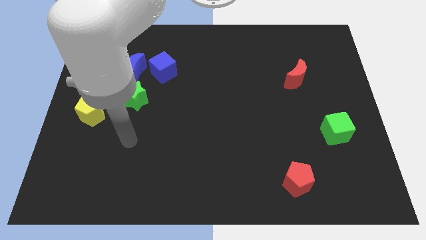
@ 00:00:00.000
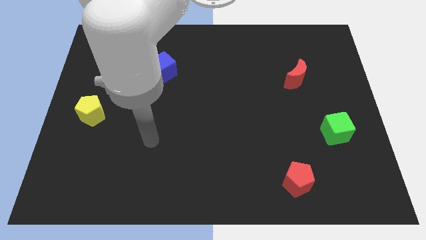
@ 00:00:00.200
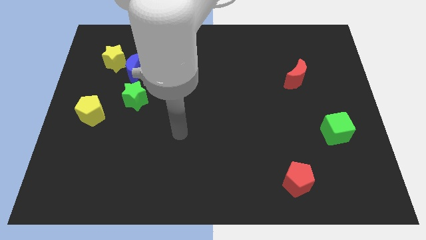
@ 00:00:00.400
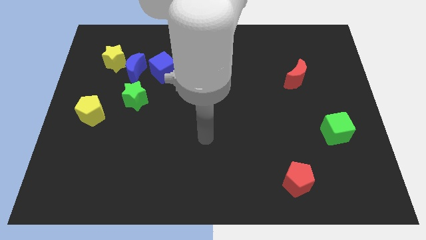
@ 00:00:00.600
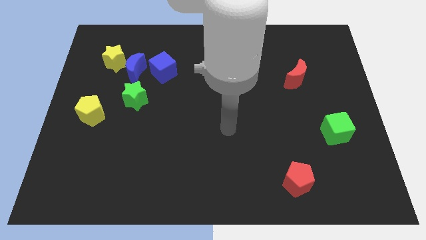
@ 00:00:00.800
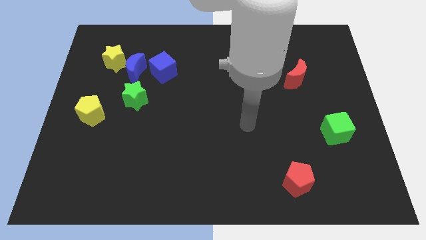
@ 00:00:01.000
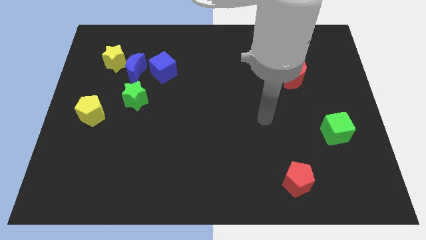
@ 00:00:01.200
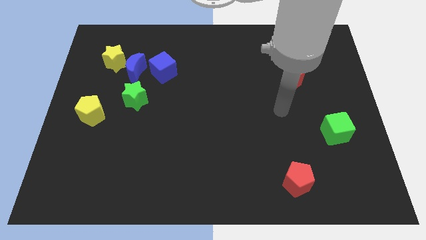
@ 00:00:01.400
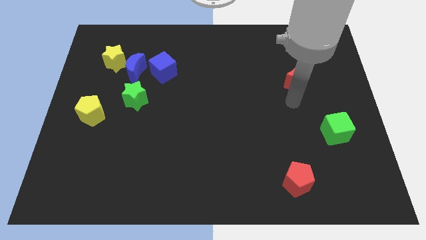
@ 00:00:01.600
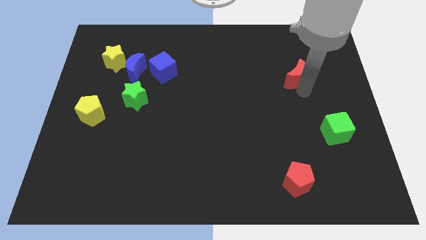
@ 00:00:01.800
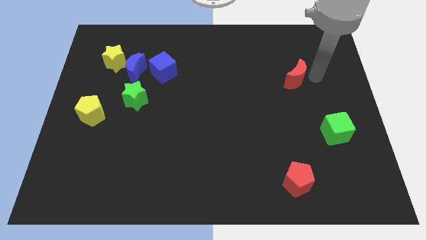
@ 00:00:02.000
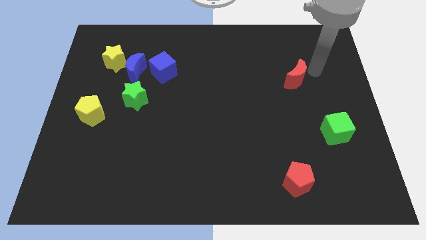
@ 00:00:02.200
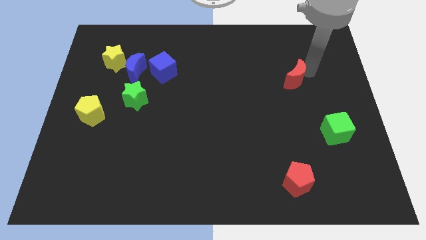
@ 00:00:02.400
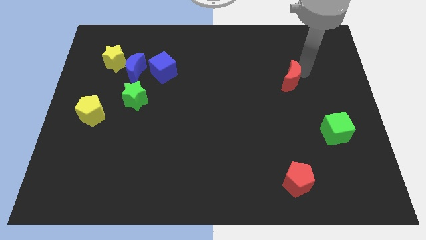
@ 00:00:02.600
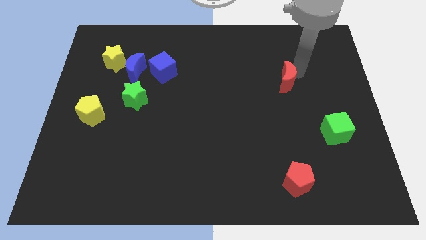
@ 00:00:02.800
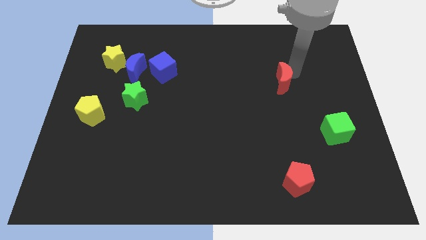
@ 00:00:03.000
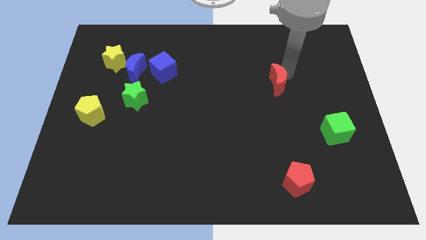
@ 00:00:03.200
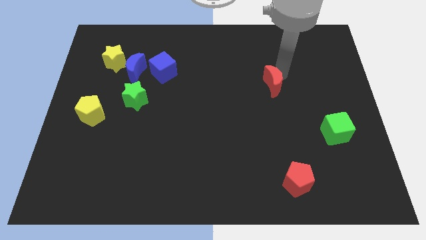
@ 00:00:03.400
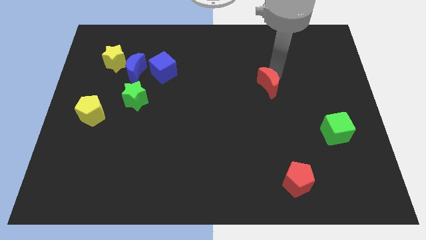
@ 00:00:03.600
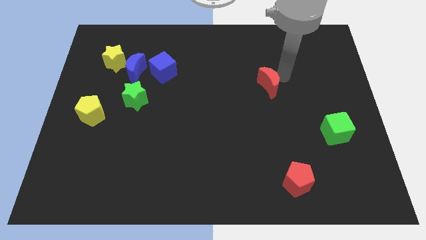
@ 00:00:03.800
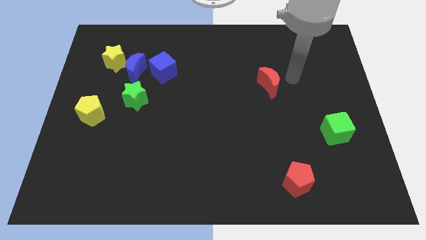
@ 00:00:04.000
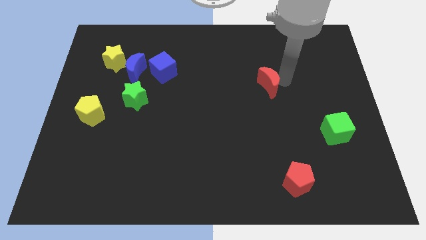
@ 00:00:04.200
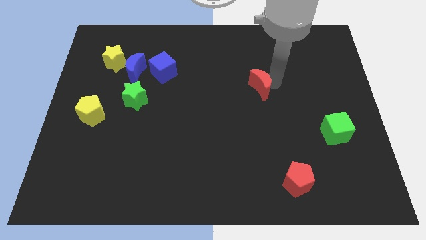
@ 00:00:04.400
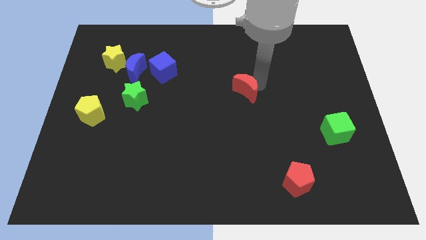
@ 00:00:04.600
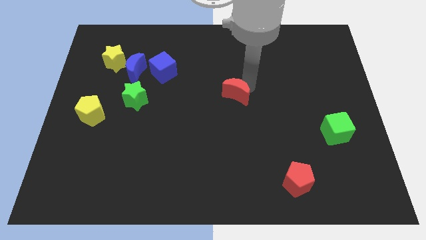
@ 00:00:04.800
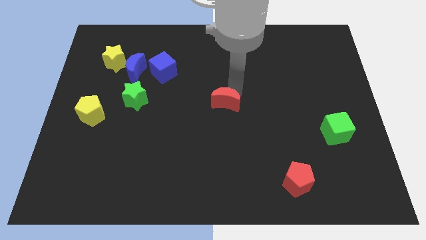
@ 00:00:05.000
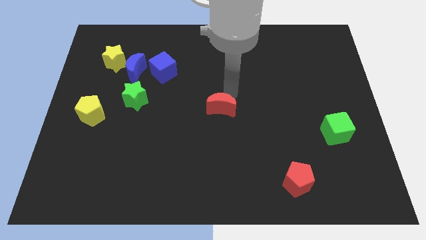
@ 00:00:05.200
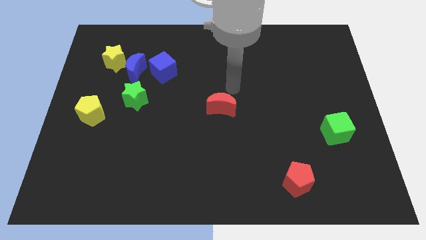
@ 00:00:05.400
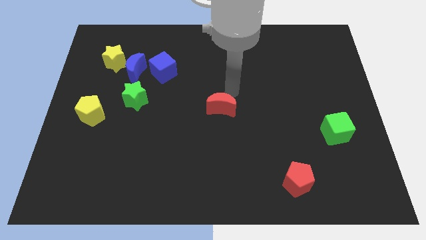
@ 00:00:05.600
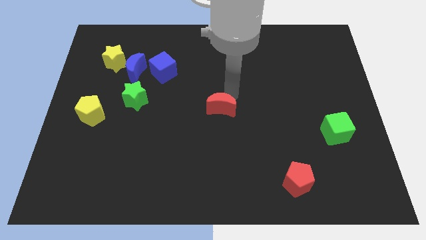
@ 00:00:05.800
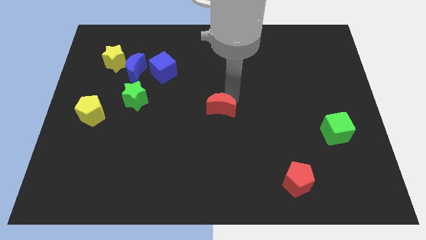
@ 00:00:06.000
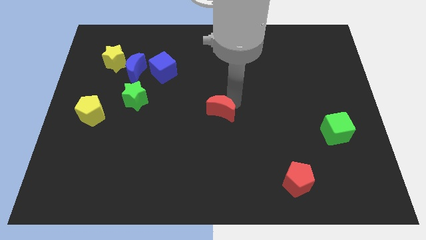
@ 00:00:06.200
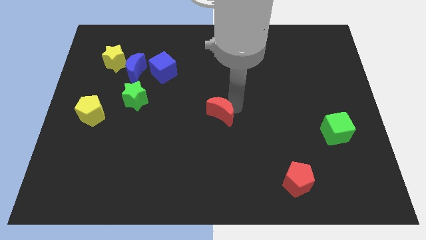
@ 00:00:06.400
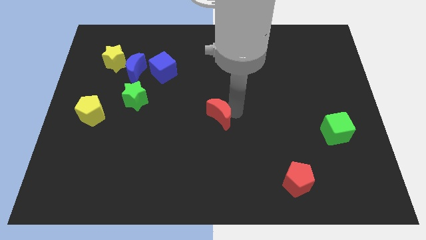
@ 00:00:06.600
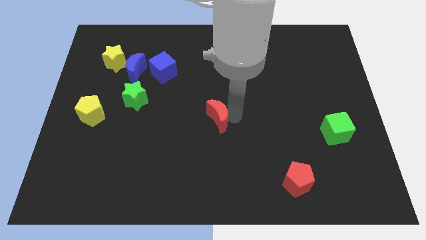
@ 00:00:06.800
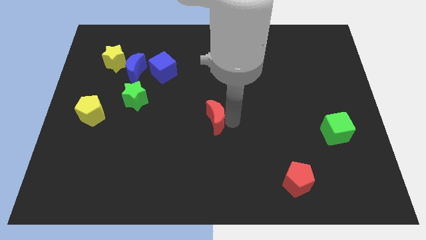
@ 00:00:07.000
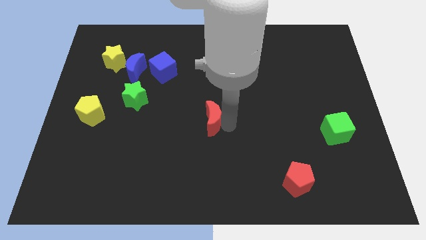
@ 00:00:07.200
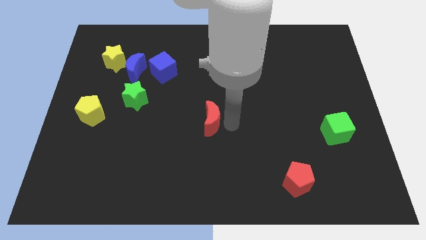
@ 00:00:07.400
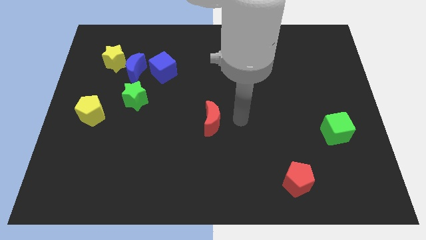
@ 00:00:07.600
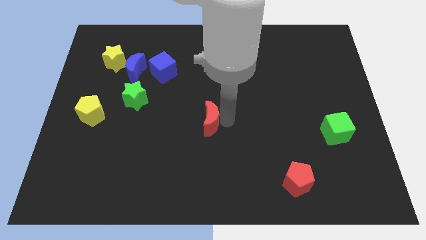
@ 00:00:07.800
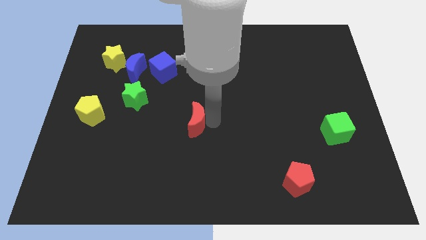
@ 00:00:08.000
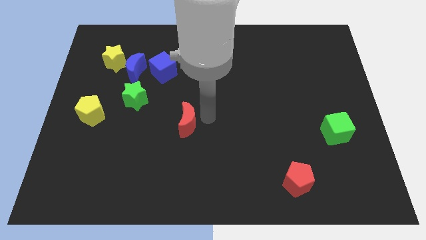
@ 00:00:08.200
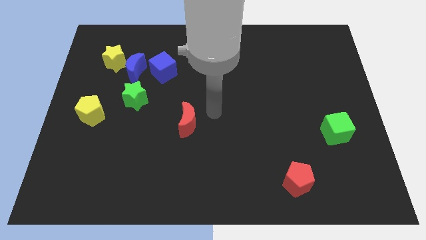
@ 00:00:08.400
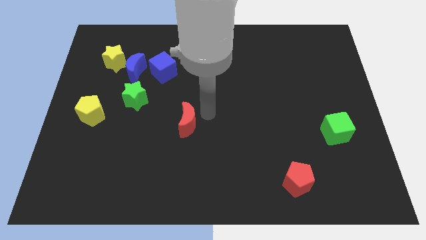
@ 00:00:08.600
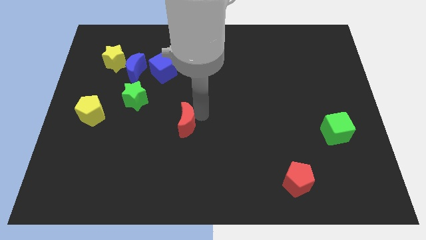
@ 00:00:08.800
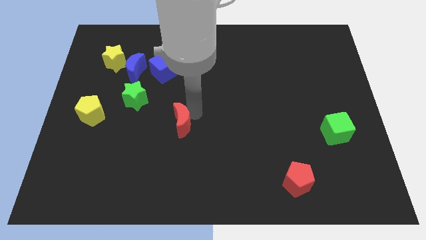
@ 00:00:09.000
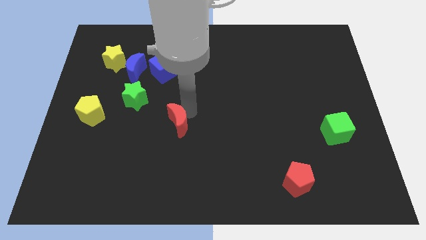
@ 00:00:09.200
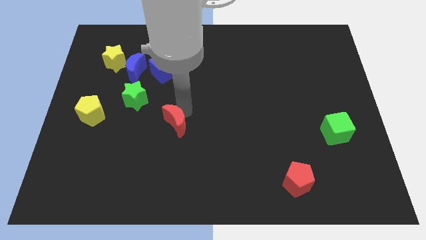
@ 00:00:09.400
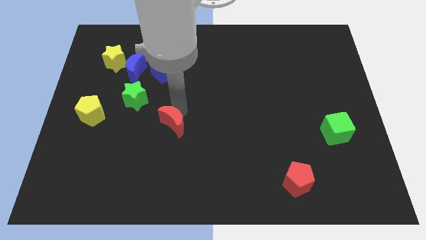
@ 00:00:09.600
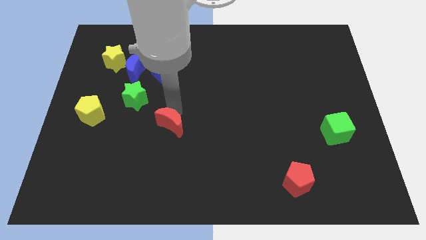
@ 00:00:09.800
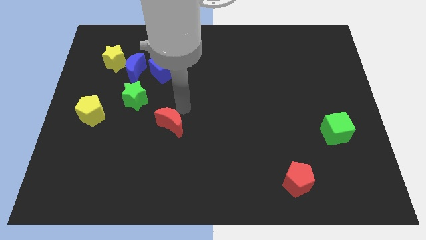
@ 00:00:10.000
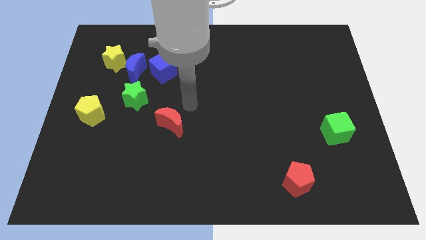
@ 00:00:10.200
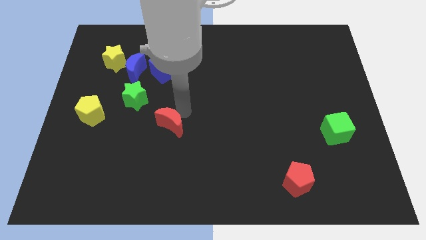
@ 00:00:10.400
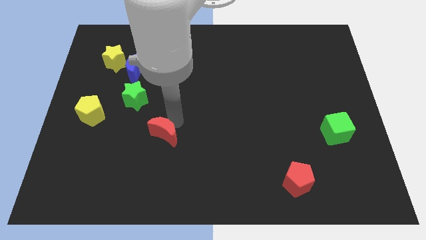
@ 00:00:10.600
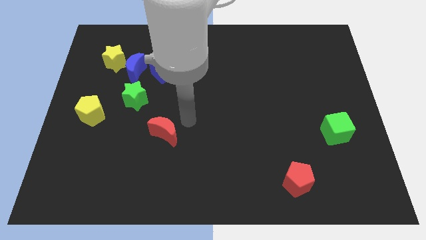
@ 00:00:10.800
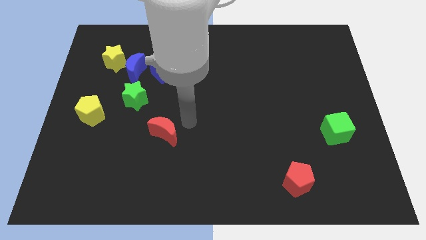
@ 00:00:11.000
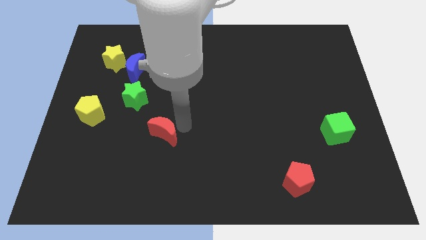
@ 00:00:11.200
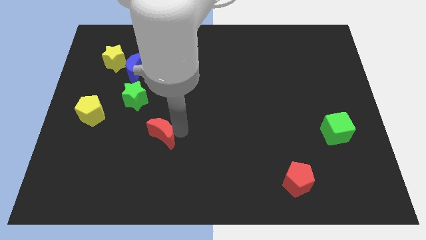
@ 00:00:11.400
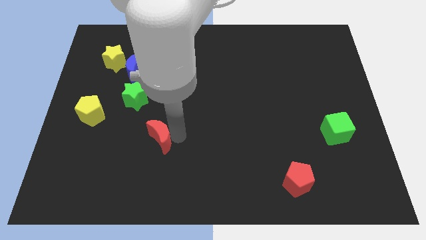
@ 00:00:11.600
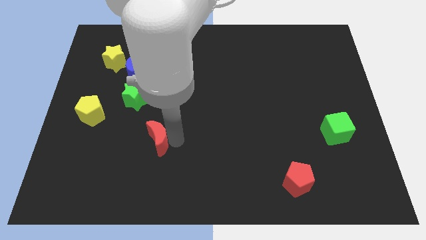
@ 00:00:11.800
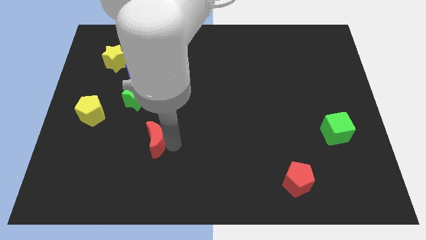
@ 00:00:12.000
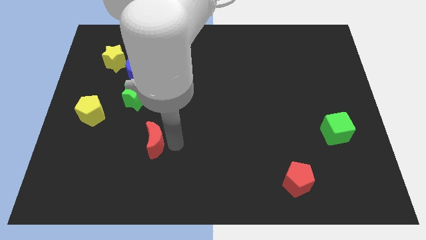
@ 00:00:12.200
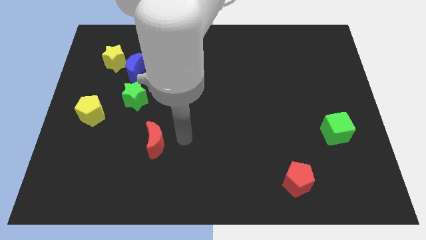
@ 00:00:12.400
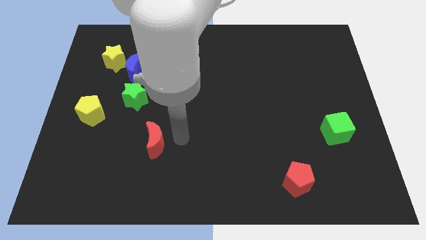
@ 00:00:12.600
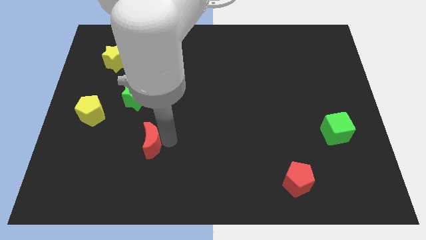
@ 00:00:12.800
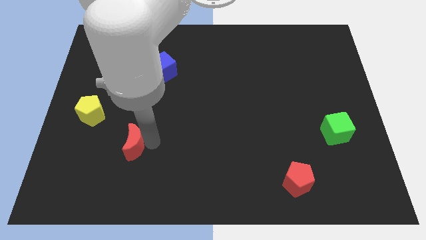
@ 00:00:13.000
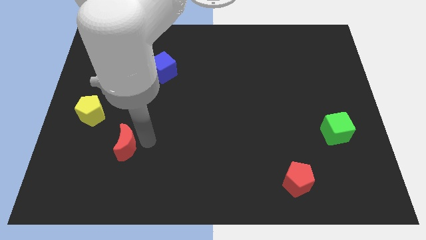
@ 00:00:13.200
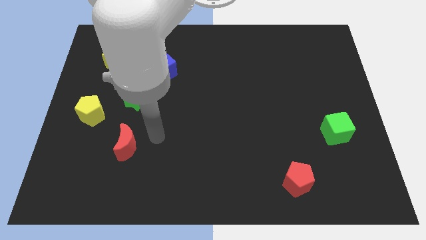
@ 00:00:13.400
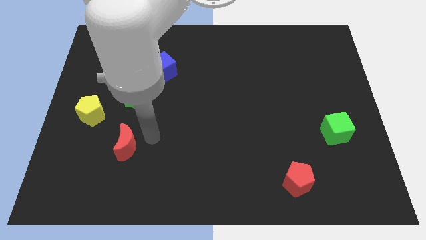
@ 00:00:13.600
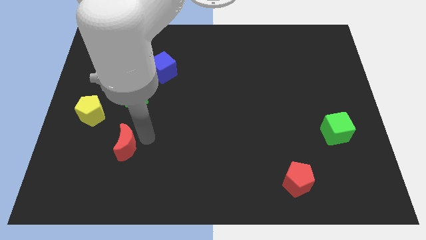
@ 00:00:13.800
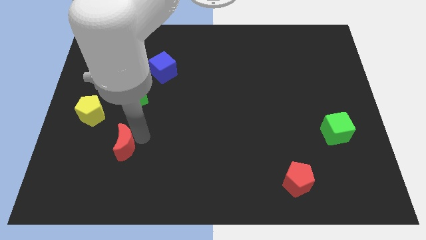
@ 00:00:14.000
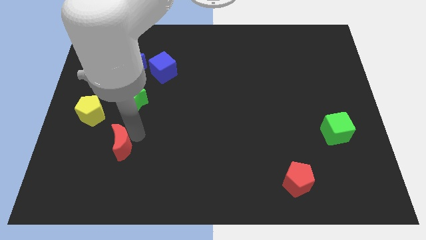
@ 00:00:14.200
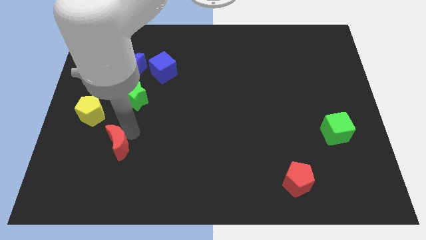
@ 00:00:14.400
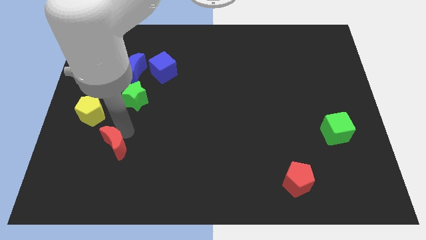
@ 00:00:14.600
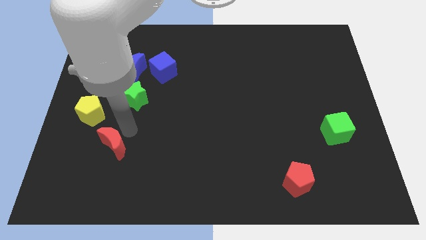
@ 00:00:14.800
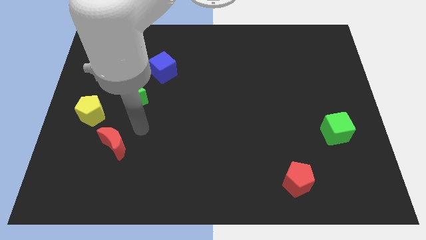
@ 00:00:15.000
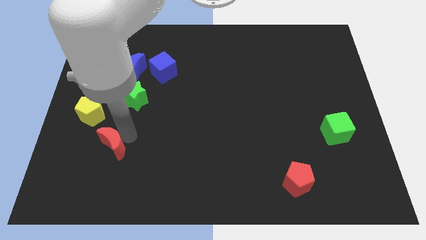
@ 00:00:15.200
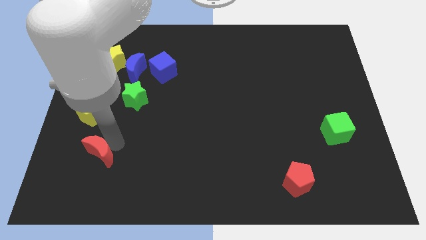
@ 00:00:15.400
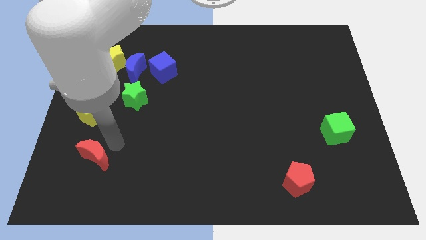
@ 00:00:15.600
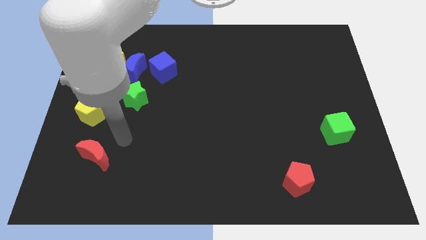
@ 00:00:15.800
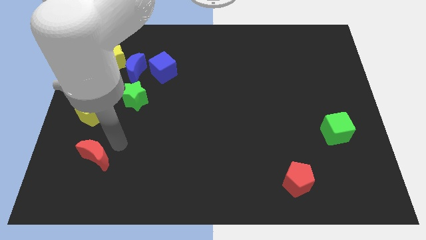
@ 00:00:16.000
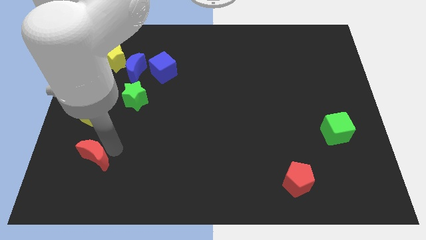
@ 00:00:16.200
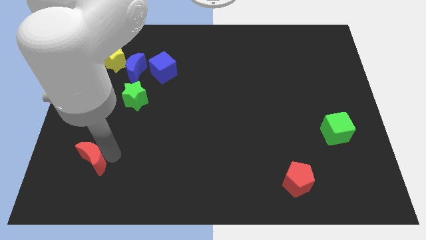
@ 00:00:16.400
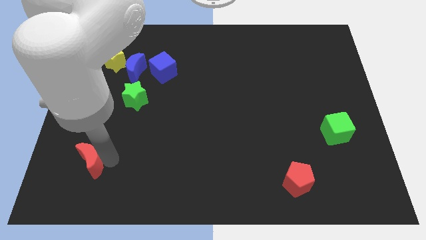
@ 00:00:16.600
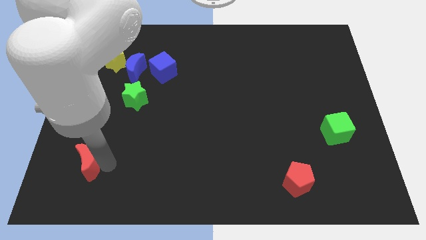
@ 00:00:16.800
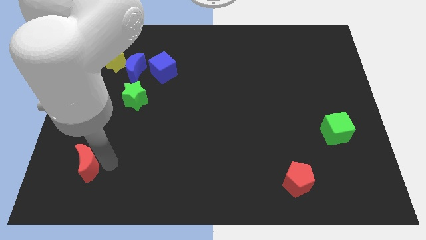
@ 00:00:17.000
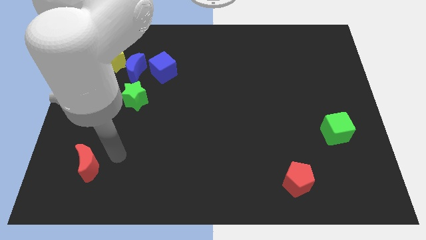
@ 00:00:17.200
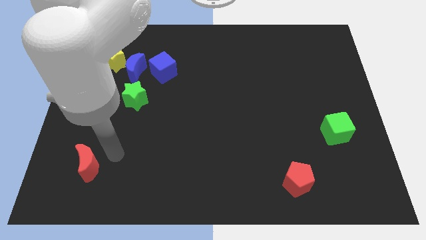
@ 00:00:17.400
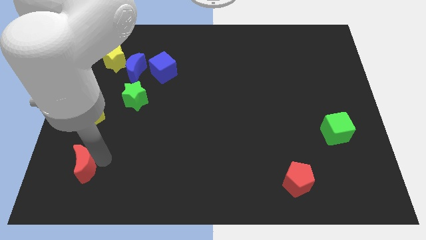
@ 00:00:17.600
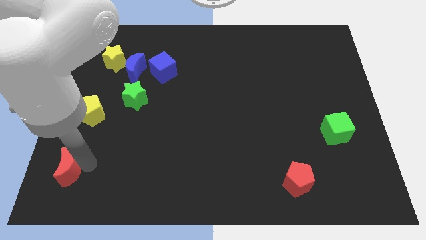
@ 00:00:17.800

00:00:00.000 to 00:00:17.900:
slide the red moon to the bottom left of the board
